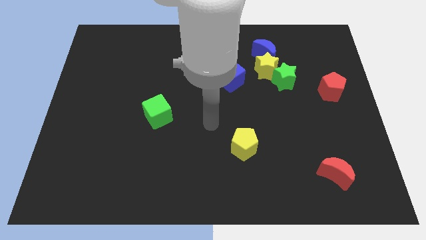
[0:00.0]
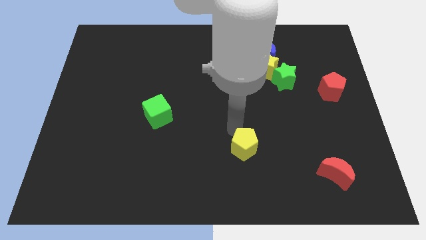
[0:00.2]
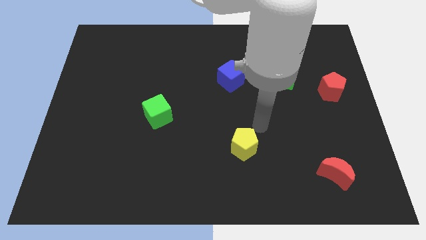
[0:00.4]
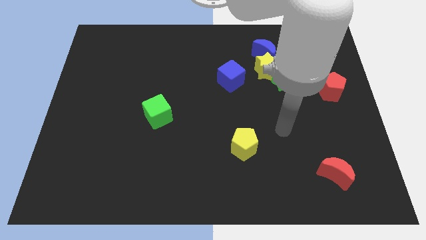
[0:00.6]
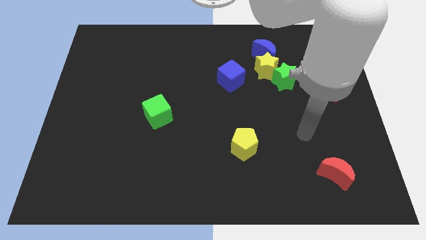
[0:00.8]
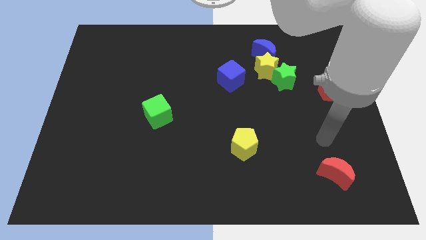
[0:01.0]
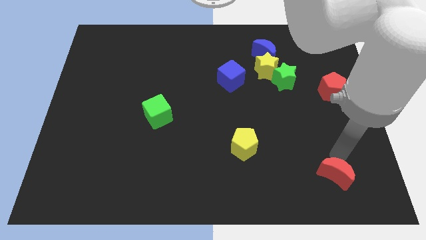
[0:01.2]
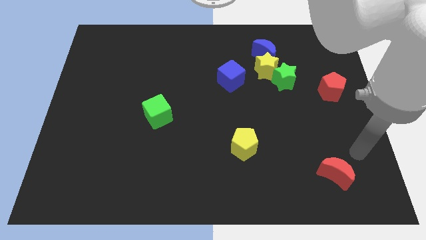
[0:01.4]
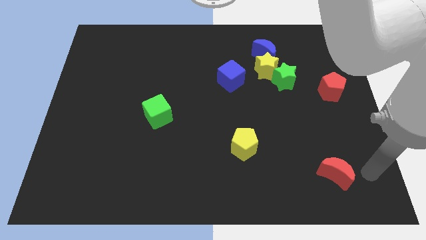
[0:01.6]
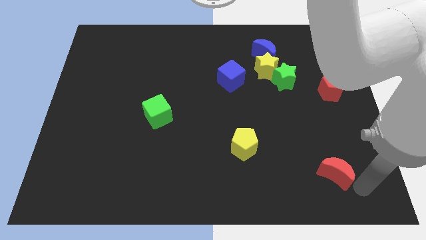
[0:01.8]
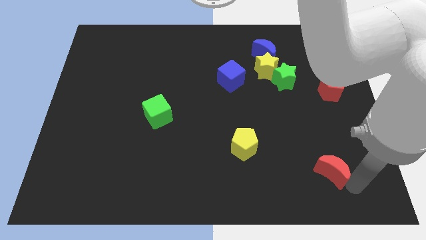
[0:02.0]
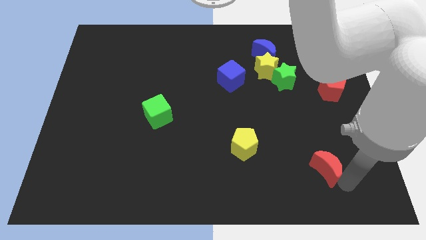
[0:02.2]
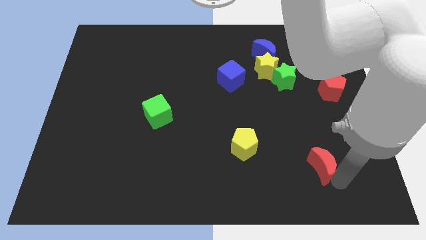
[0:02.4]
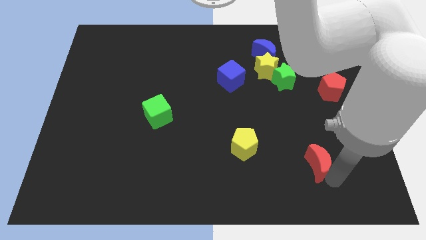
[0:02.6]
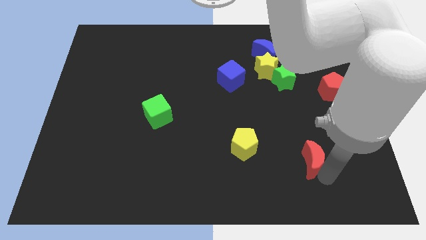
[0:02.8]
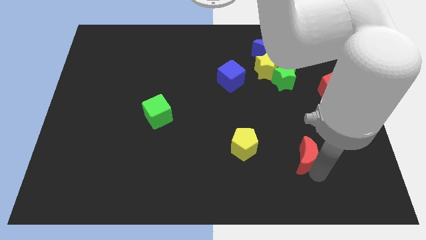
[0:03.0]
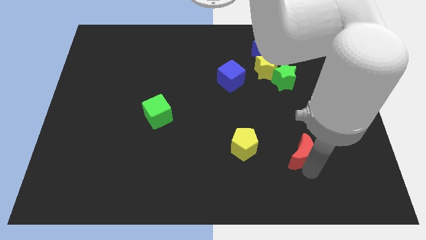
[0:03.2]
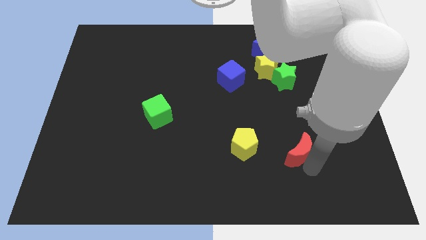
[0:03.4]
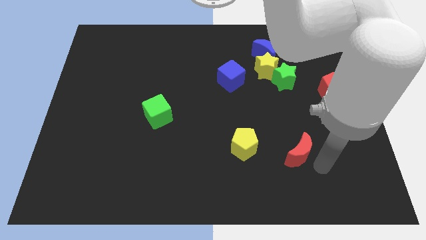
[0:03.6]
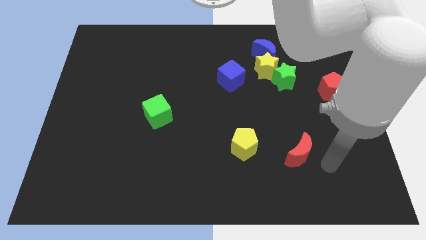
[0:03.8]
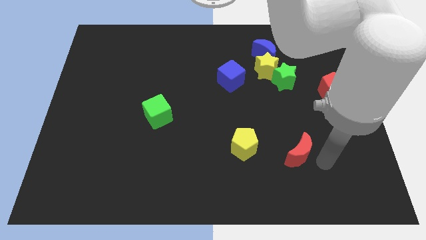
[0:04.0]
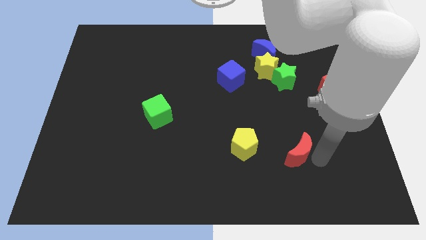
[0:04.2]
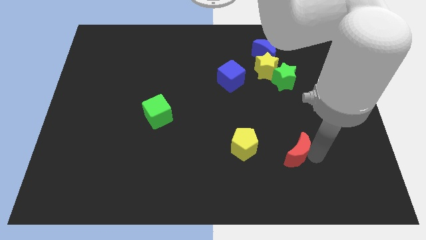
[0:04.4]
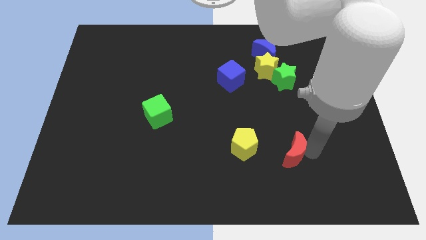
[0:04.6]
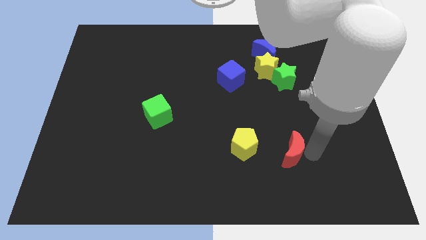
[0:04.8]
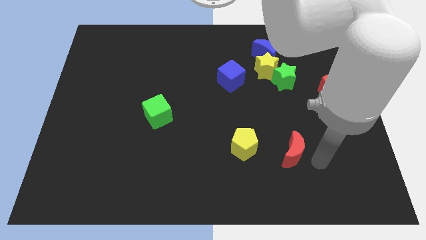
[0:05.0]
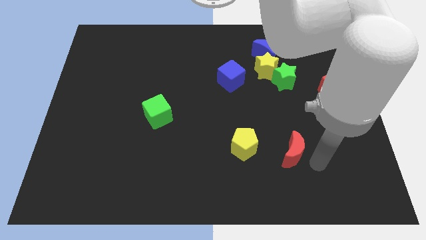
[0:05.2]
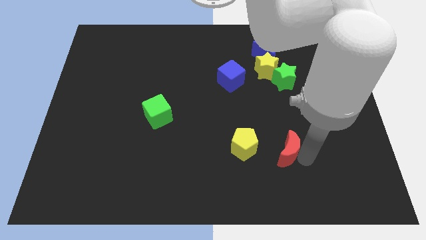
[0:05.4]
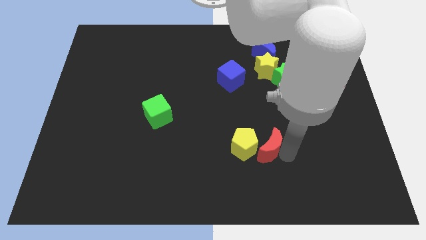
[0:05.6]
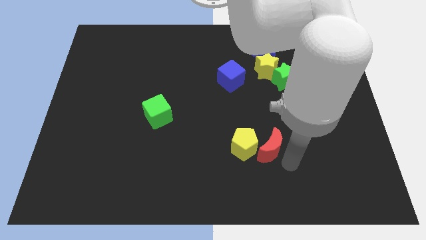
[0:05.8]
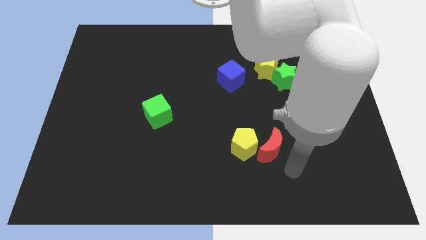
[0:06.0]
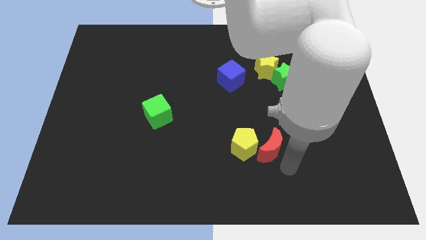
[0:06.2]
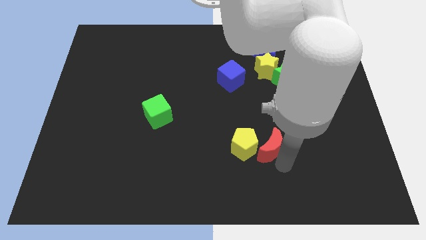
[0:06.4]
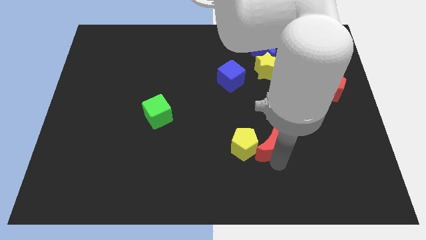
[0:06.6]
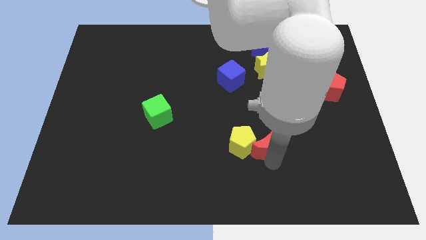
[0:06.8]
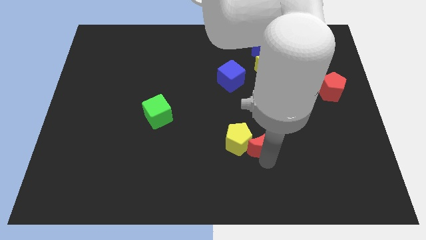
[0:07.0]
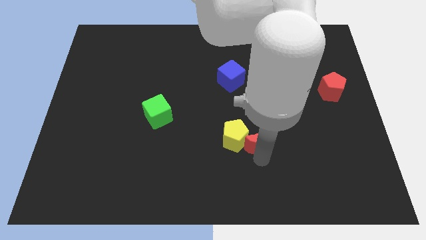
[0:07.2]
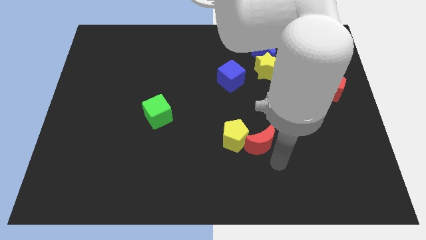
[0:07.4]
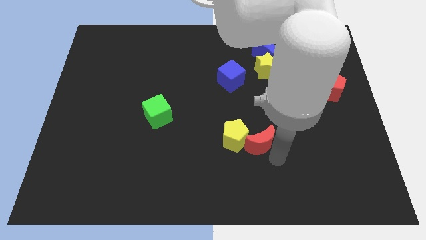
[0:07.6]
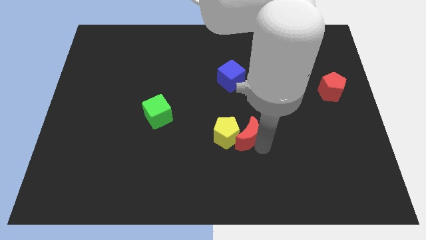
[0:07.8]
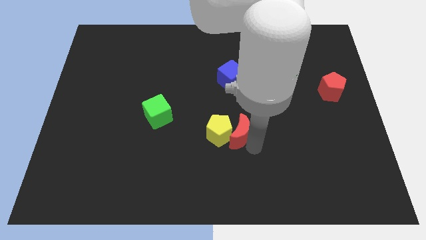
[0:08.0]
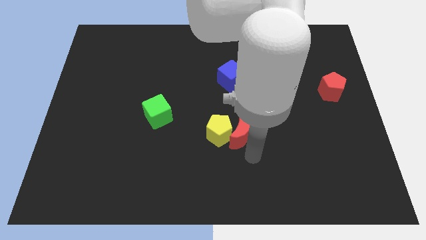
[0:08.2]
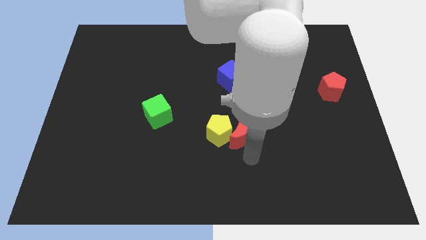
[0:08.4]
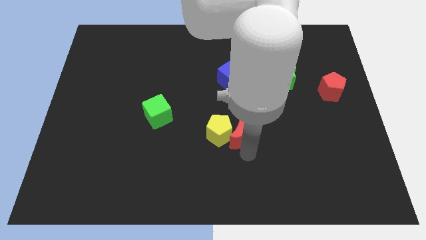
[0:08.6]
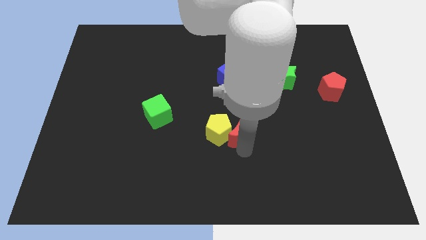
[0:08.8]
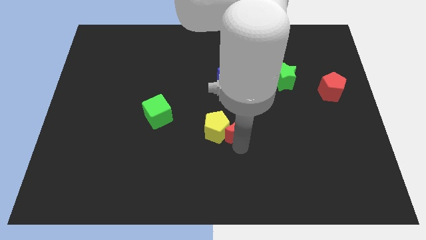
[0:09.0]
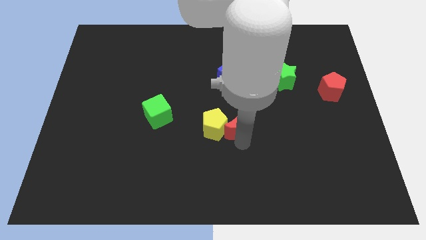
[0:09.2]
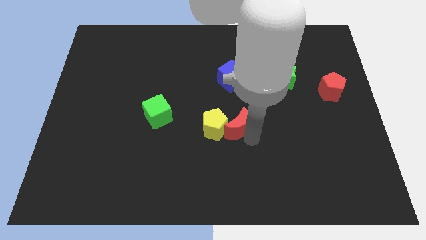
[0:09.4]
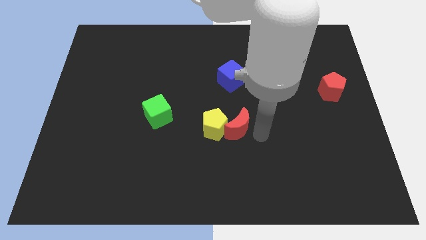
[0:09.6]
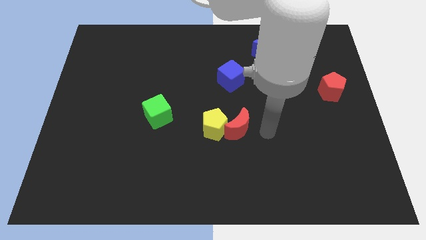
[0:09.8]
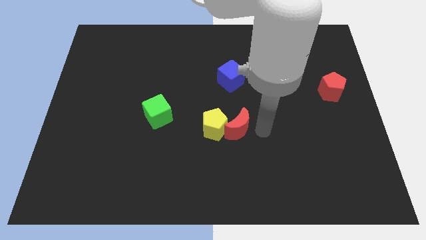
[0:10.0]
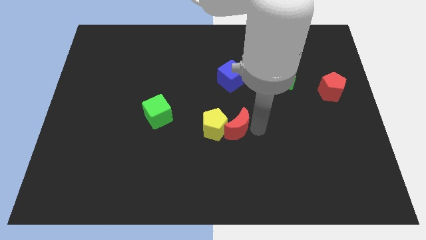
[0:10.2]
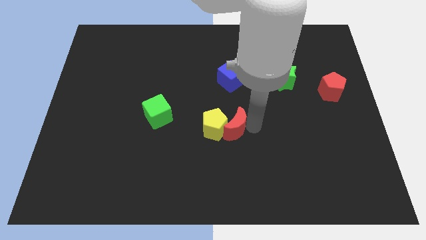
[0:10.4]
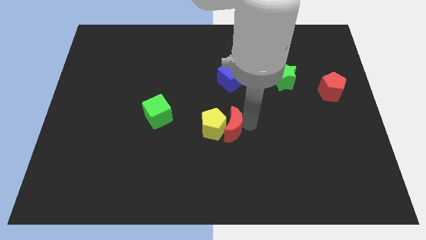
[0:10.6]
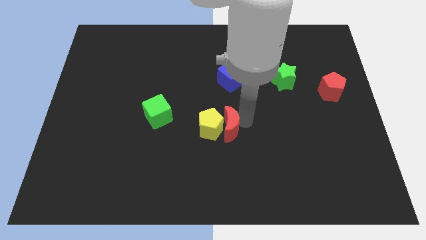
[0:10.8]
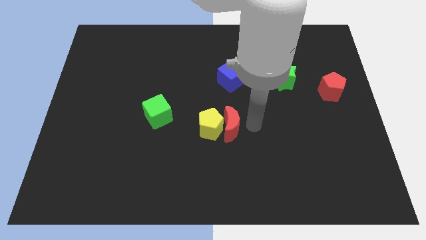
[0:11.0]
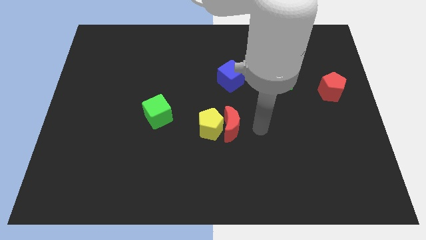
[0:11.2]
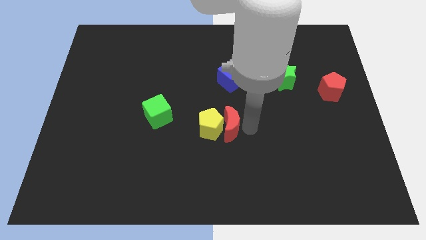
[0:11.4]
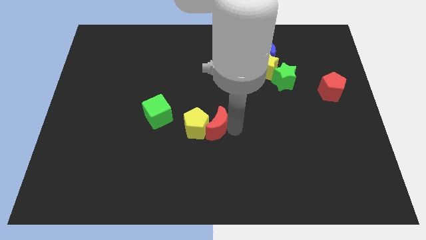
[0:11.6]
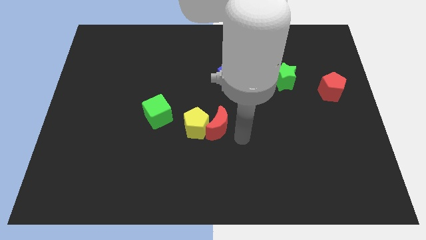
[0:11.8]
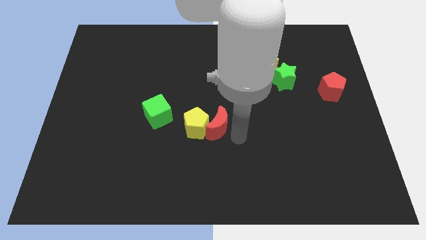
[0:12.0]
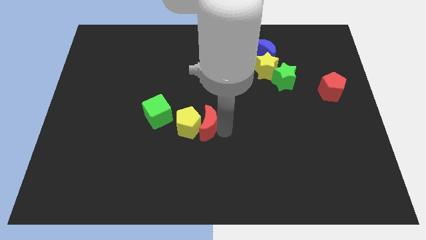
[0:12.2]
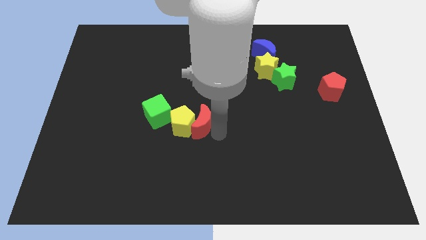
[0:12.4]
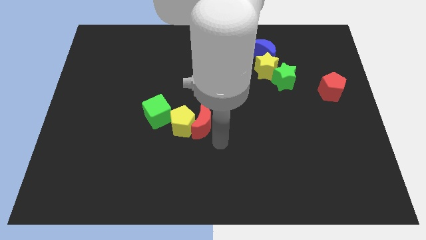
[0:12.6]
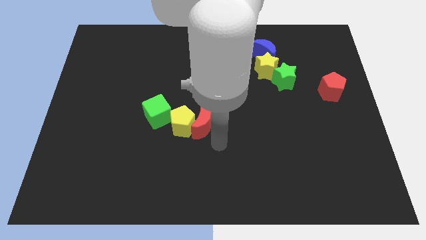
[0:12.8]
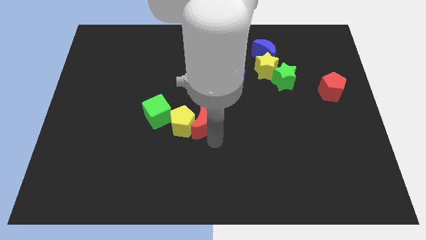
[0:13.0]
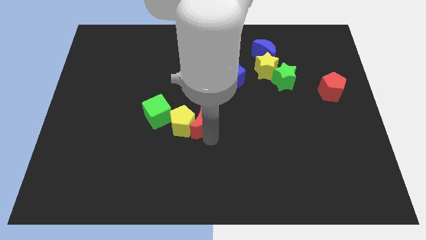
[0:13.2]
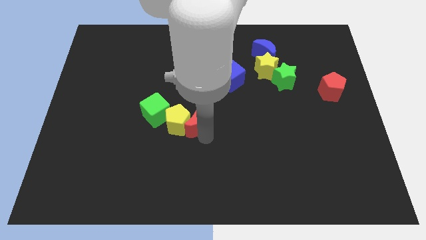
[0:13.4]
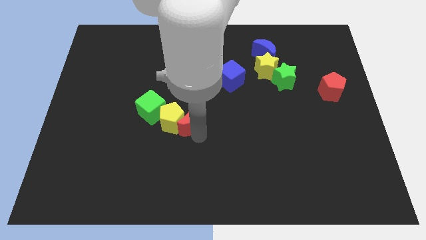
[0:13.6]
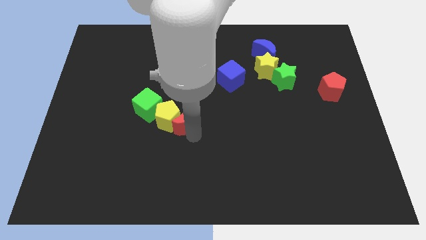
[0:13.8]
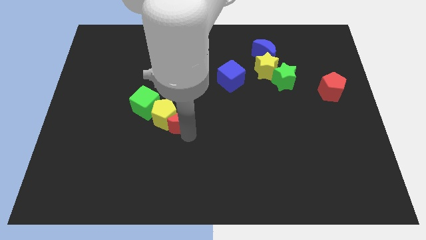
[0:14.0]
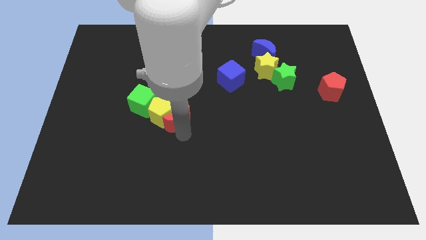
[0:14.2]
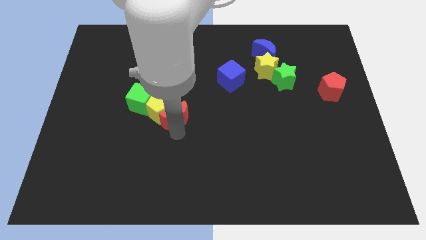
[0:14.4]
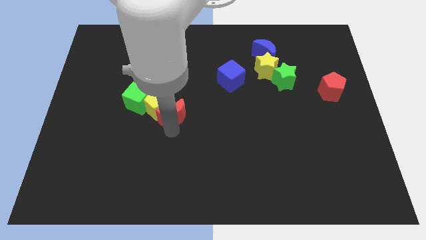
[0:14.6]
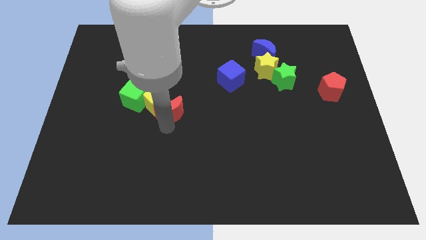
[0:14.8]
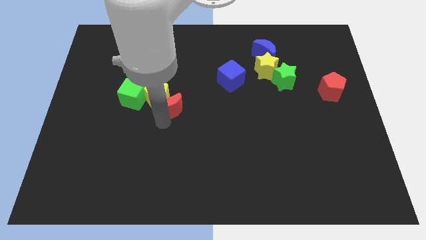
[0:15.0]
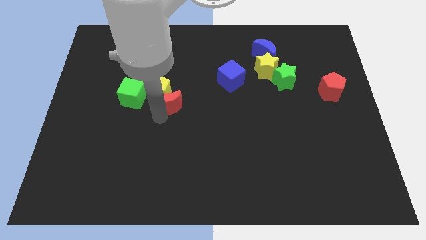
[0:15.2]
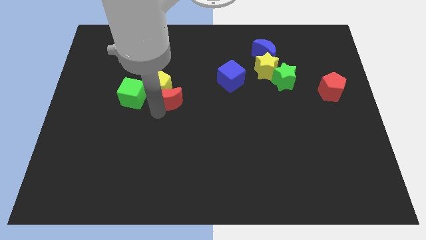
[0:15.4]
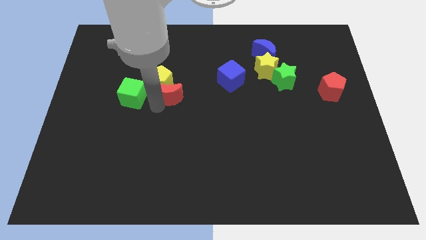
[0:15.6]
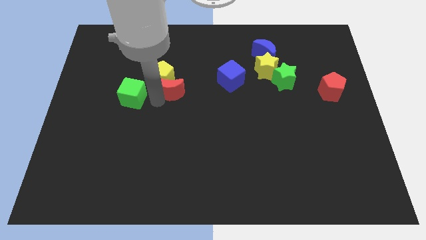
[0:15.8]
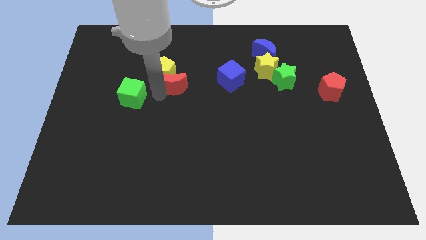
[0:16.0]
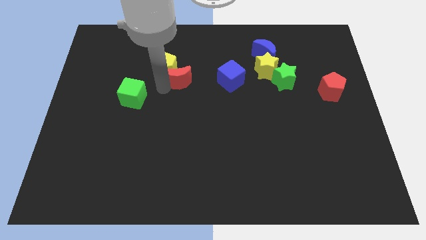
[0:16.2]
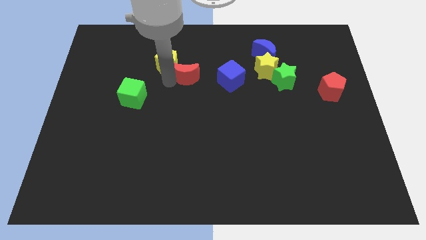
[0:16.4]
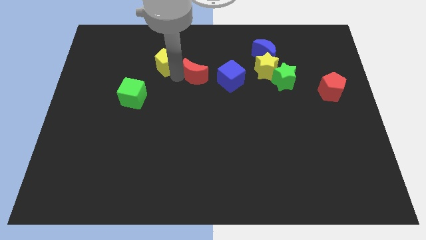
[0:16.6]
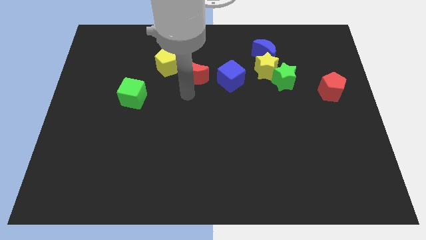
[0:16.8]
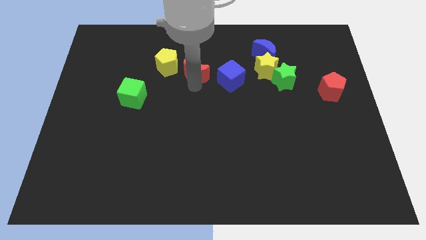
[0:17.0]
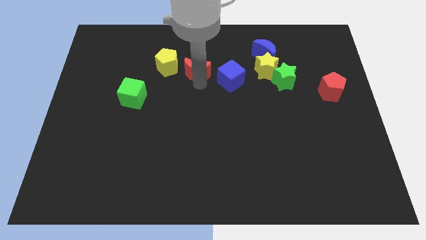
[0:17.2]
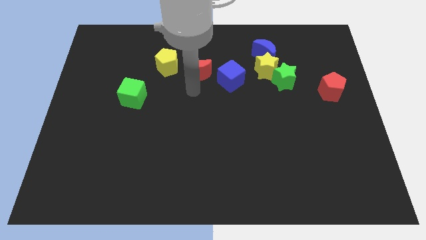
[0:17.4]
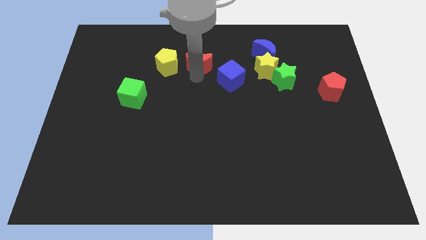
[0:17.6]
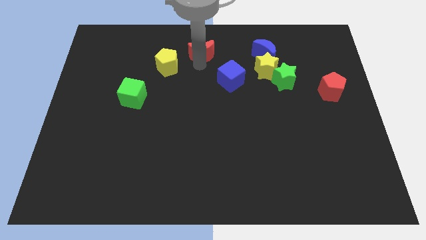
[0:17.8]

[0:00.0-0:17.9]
put the red moon to the top
